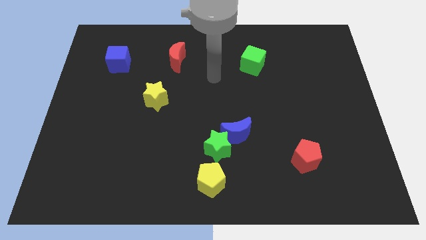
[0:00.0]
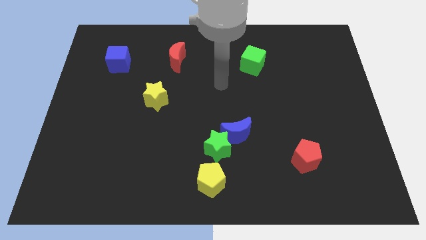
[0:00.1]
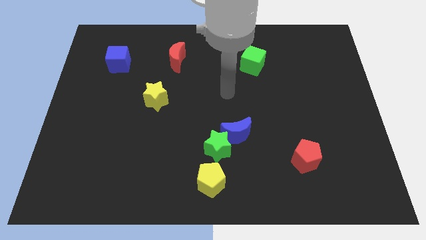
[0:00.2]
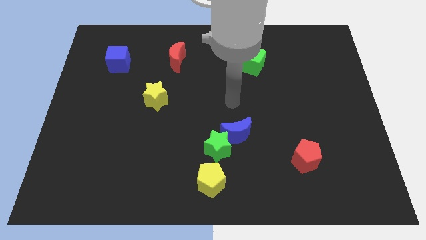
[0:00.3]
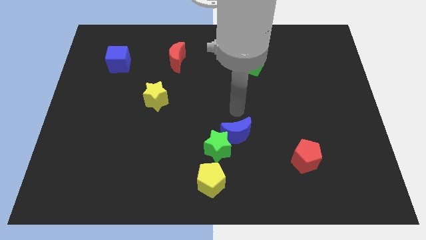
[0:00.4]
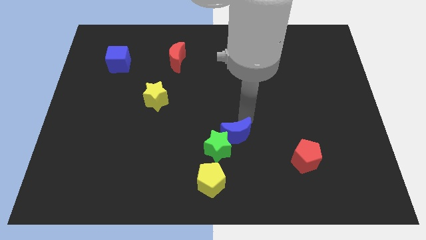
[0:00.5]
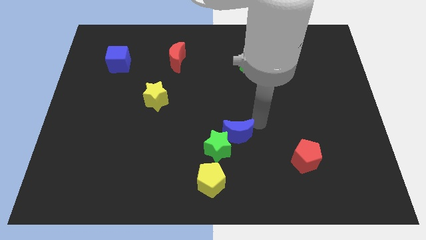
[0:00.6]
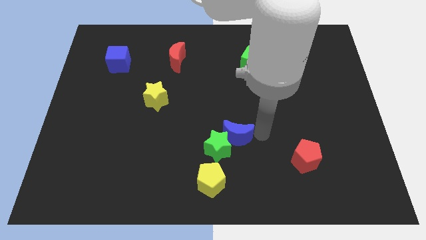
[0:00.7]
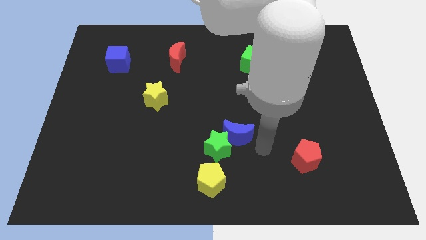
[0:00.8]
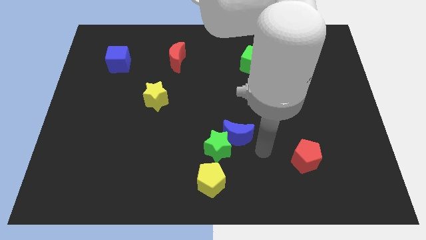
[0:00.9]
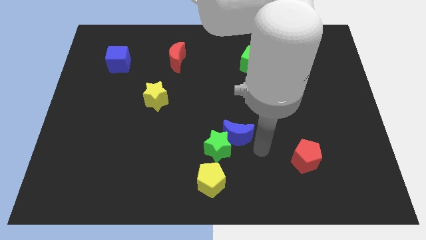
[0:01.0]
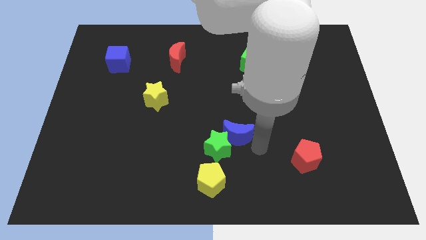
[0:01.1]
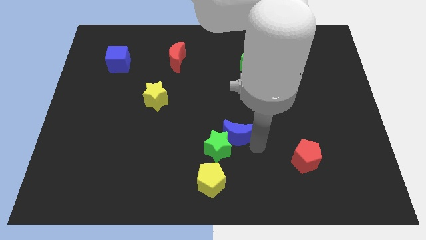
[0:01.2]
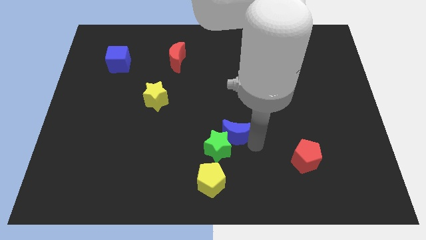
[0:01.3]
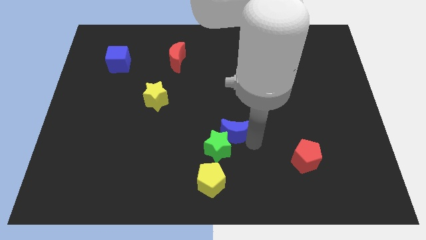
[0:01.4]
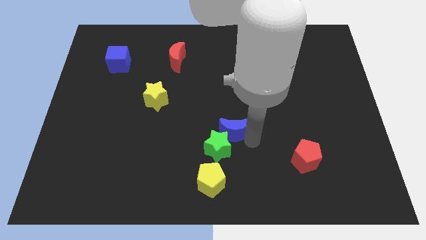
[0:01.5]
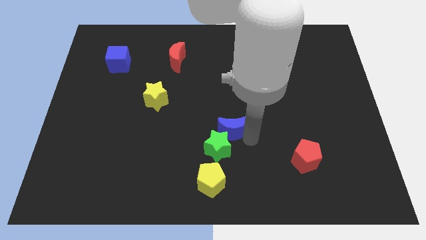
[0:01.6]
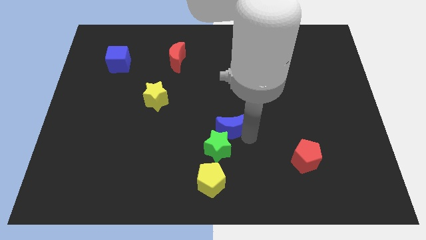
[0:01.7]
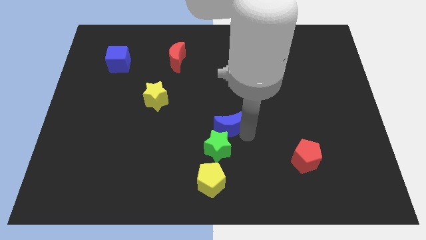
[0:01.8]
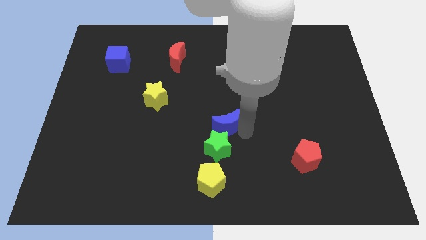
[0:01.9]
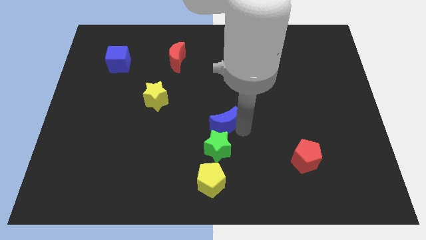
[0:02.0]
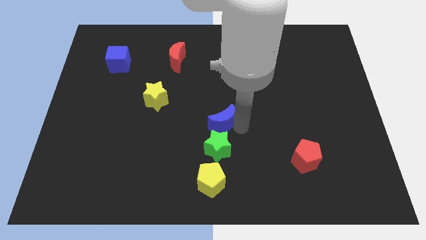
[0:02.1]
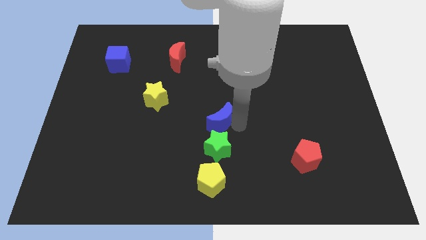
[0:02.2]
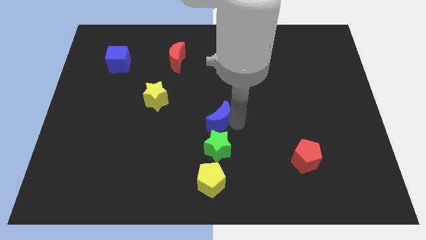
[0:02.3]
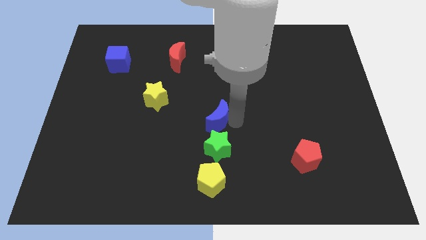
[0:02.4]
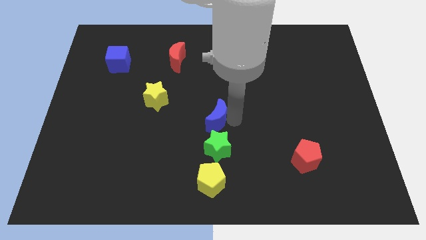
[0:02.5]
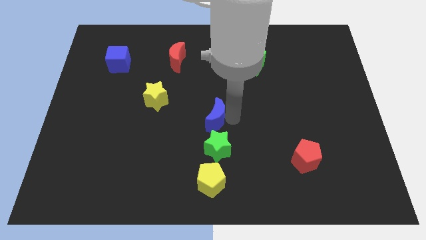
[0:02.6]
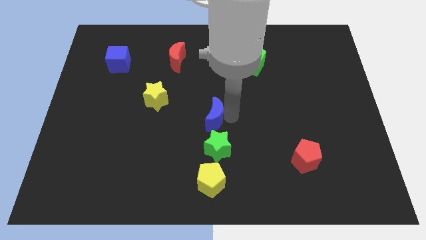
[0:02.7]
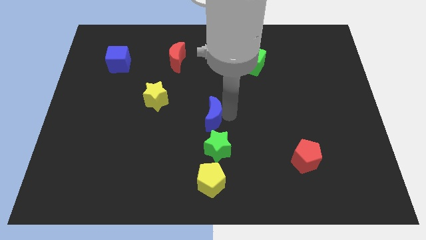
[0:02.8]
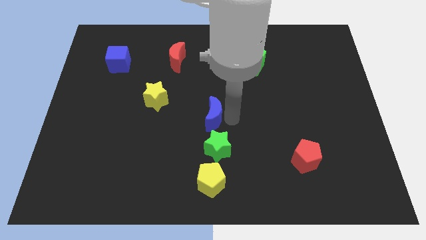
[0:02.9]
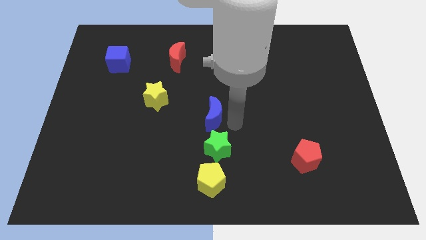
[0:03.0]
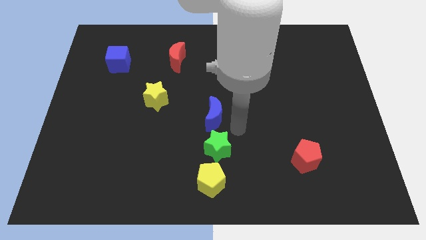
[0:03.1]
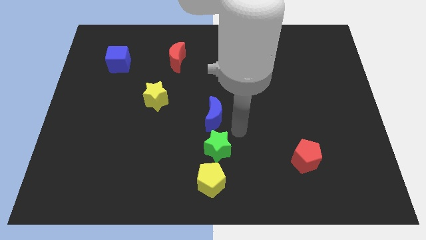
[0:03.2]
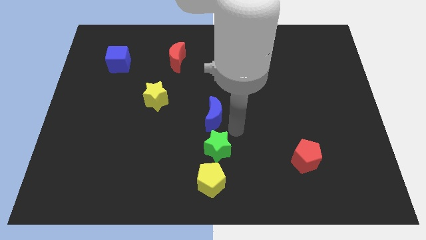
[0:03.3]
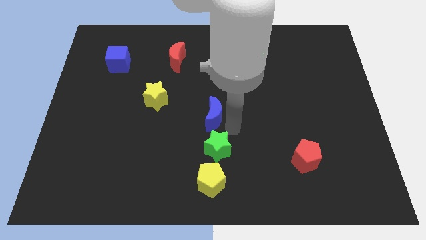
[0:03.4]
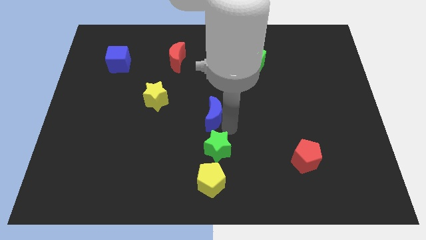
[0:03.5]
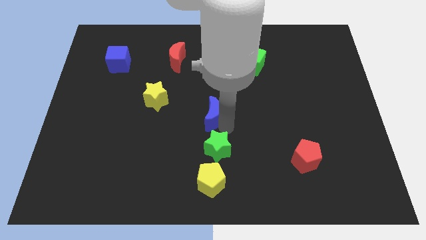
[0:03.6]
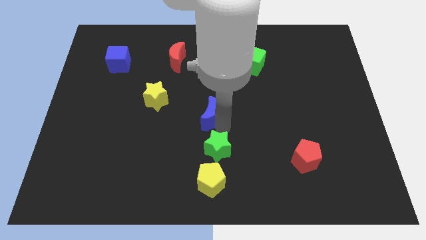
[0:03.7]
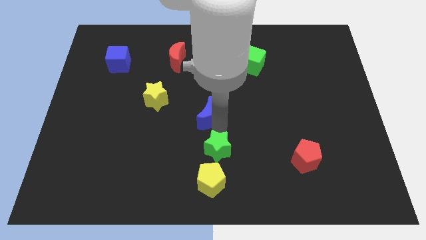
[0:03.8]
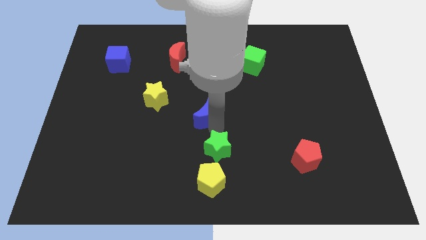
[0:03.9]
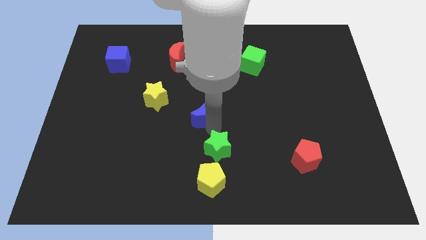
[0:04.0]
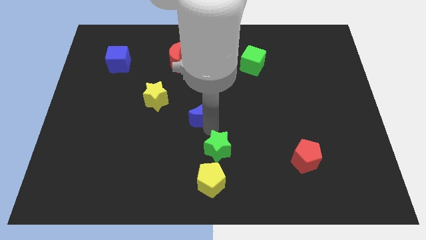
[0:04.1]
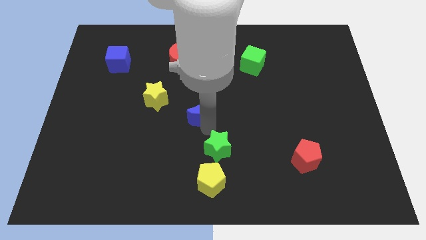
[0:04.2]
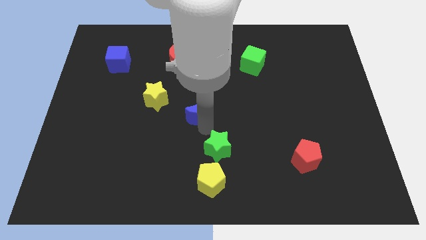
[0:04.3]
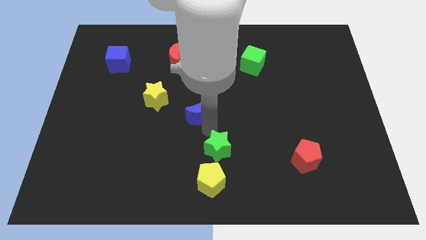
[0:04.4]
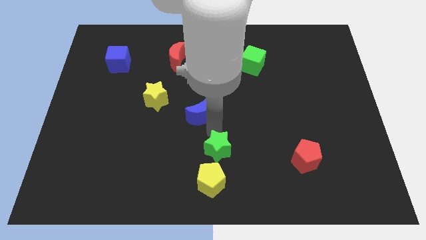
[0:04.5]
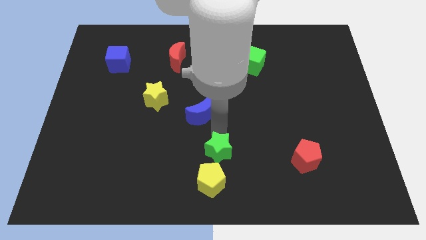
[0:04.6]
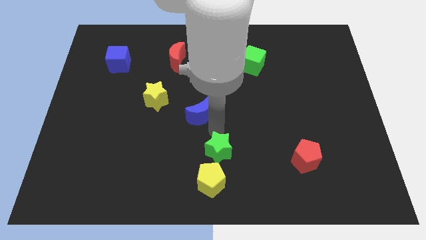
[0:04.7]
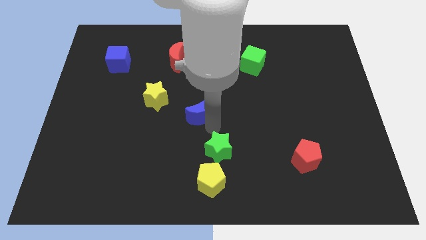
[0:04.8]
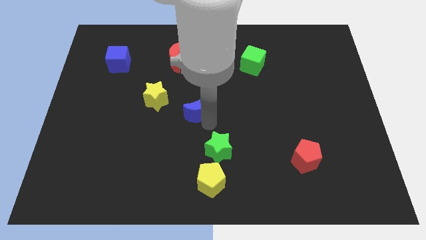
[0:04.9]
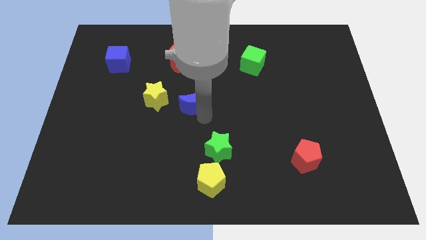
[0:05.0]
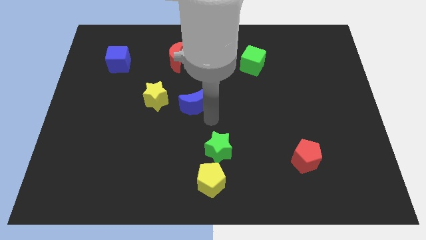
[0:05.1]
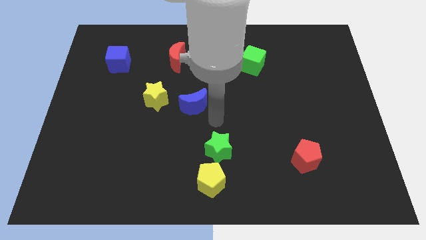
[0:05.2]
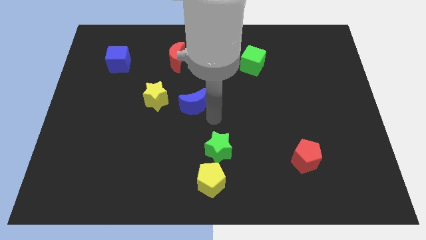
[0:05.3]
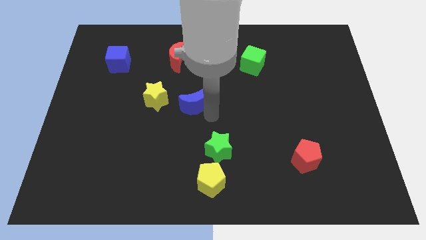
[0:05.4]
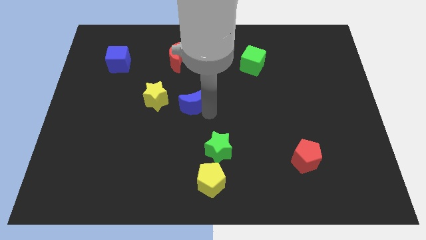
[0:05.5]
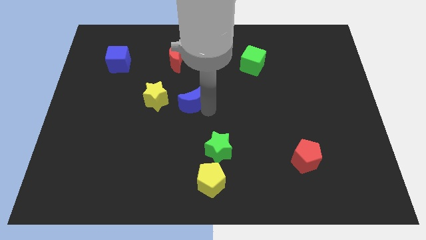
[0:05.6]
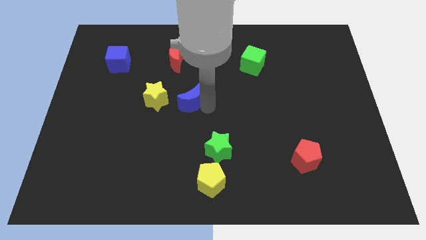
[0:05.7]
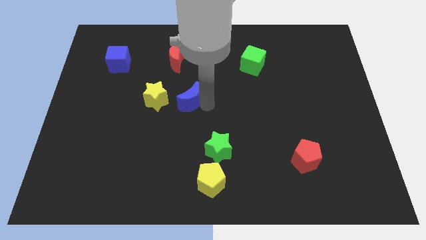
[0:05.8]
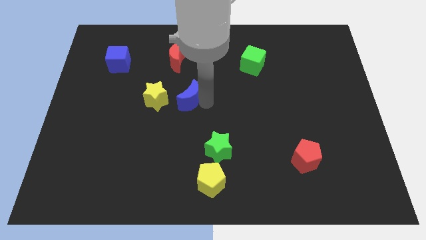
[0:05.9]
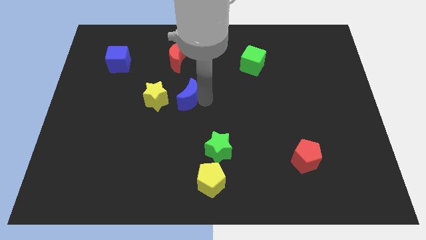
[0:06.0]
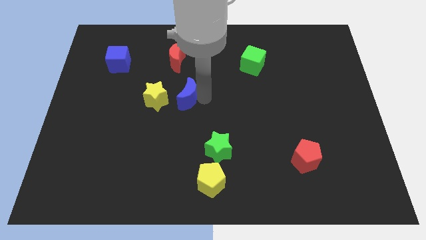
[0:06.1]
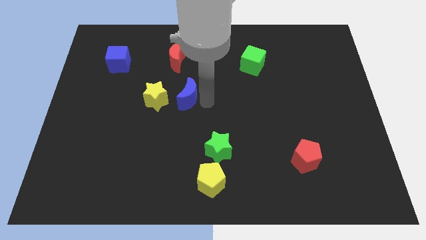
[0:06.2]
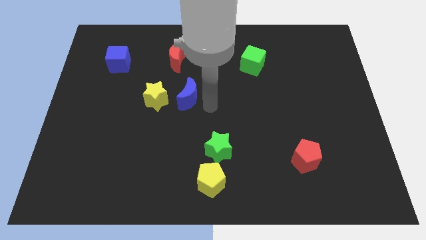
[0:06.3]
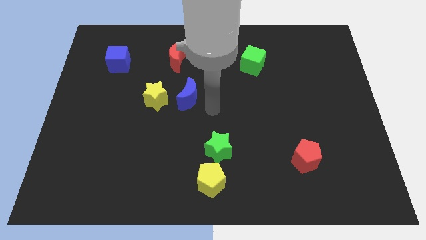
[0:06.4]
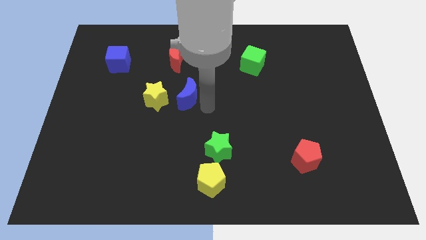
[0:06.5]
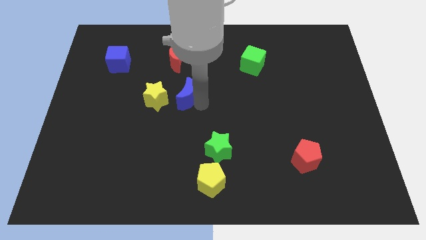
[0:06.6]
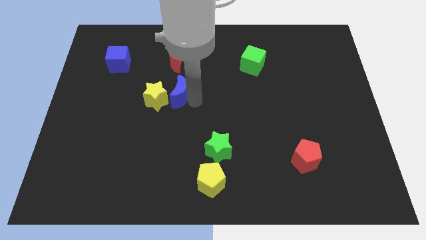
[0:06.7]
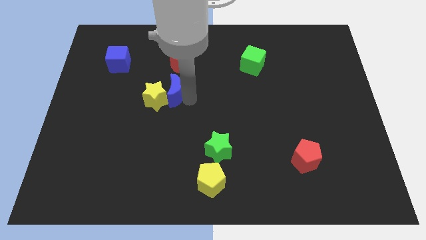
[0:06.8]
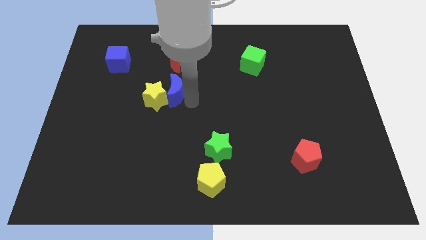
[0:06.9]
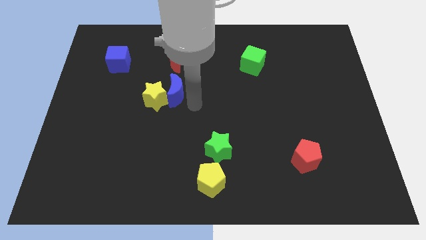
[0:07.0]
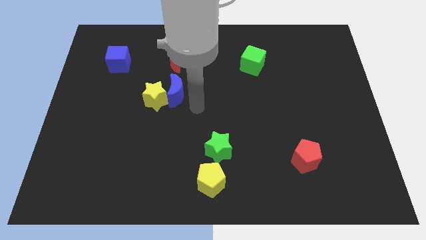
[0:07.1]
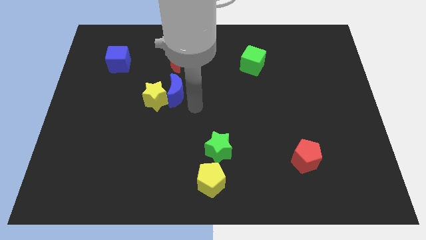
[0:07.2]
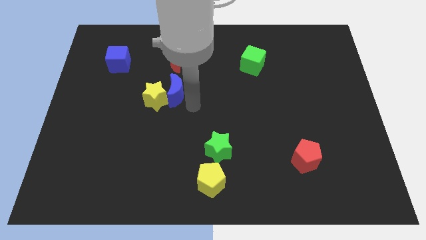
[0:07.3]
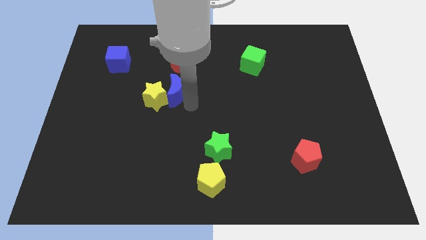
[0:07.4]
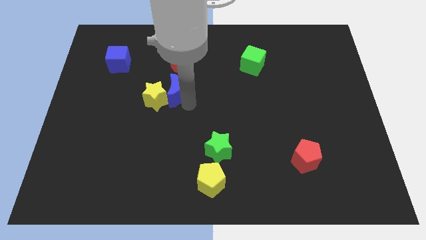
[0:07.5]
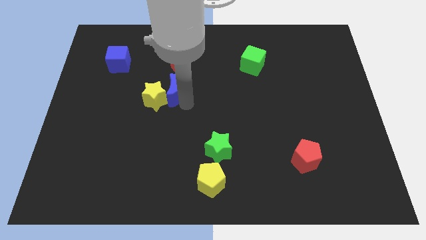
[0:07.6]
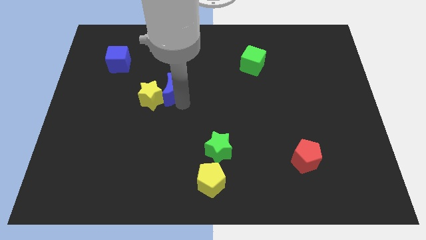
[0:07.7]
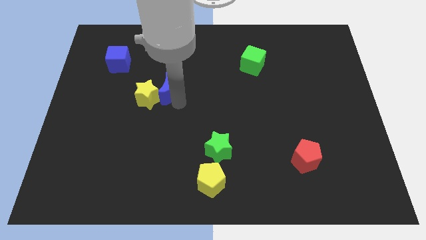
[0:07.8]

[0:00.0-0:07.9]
slide the blue moon up and then left
